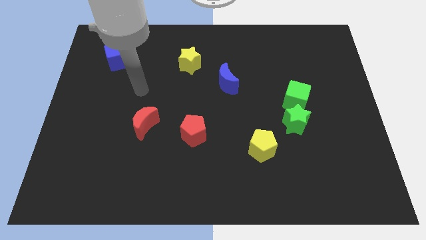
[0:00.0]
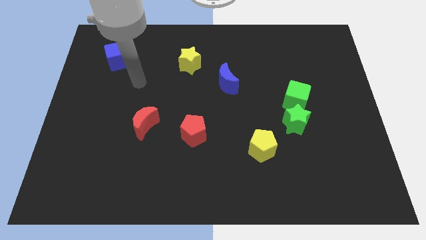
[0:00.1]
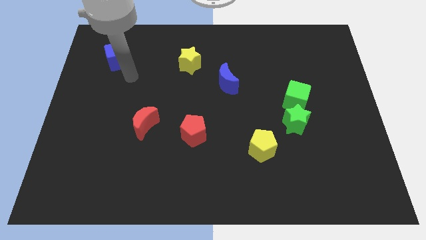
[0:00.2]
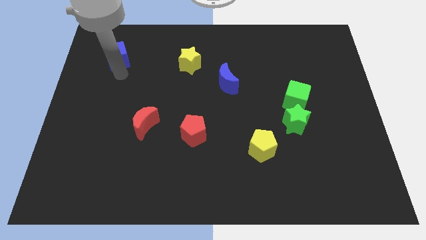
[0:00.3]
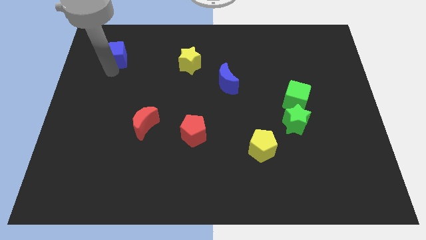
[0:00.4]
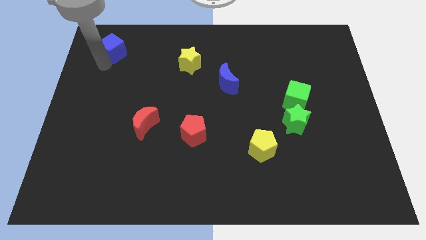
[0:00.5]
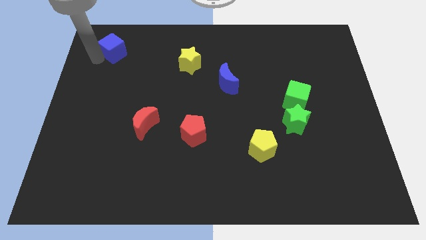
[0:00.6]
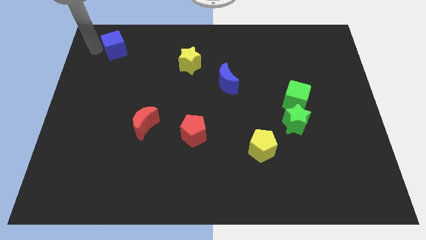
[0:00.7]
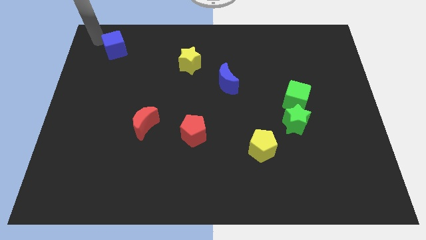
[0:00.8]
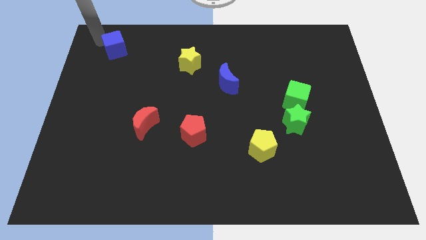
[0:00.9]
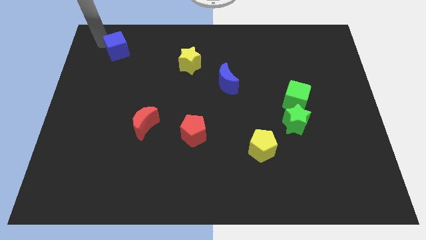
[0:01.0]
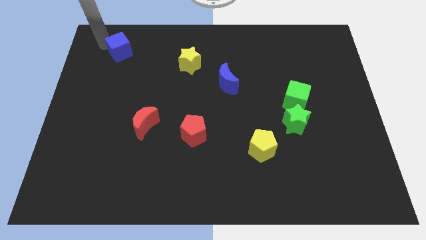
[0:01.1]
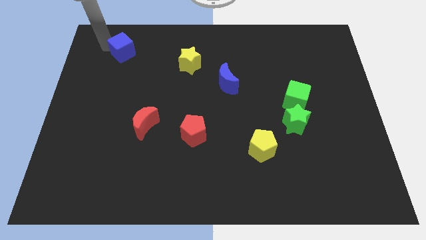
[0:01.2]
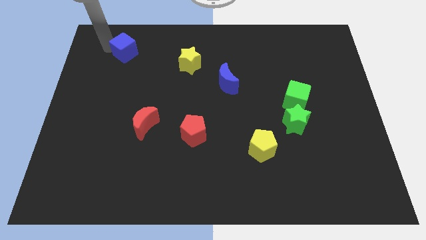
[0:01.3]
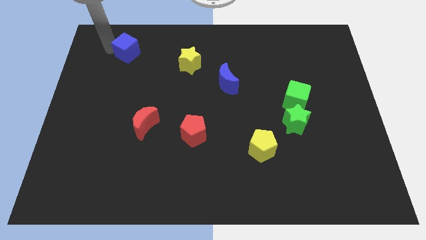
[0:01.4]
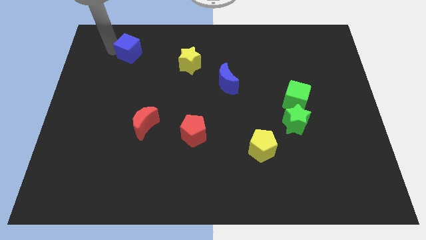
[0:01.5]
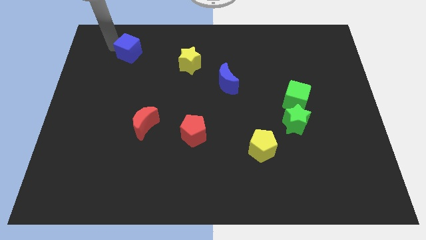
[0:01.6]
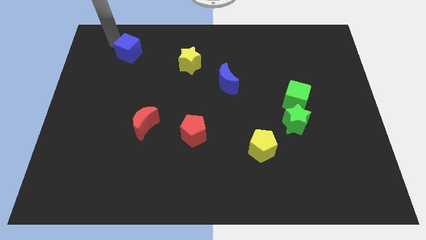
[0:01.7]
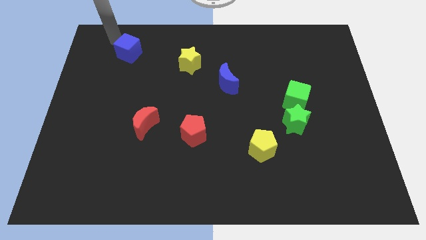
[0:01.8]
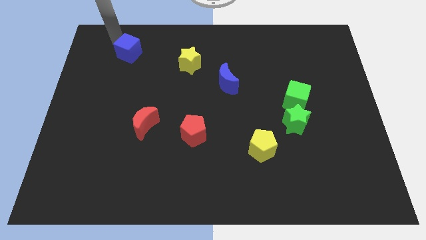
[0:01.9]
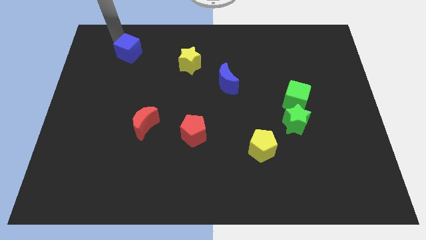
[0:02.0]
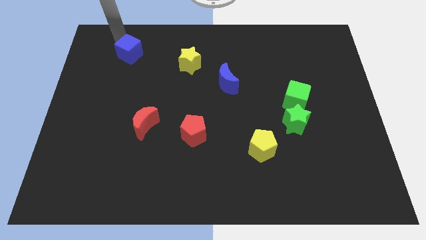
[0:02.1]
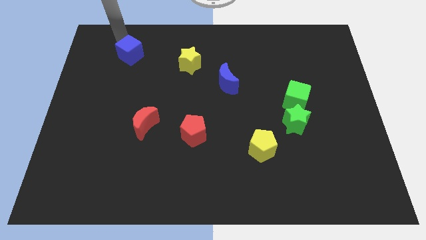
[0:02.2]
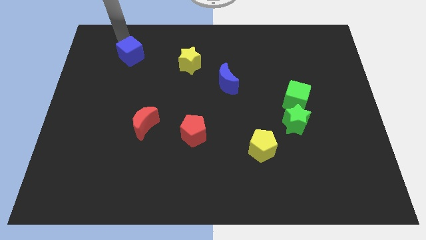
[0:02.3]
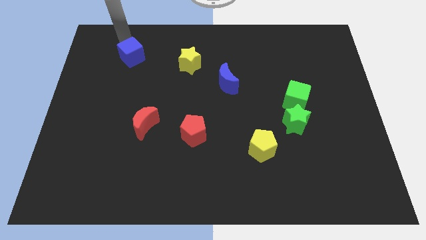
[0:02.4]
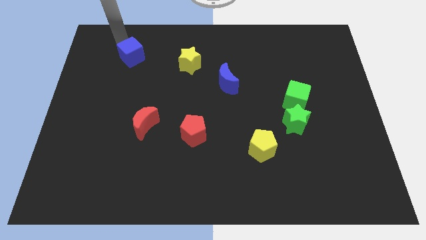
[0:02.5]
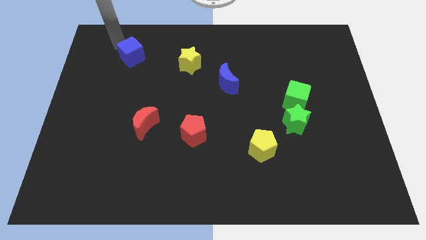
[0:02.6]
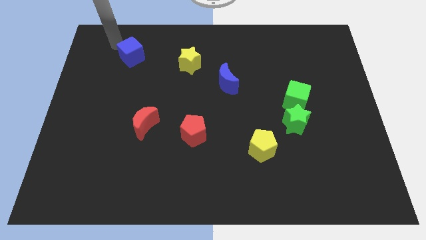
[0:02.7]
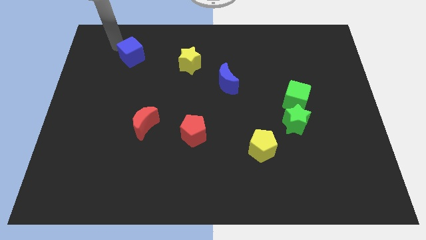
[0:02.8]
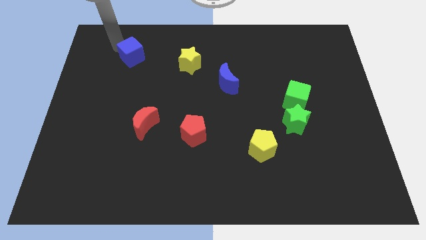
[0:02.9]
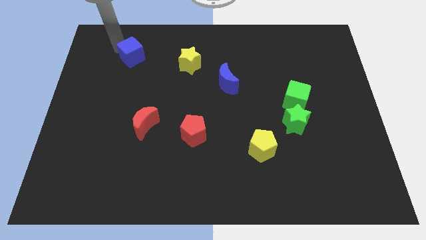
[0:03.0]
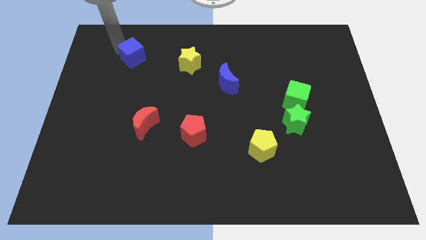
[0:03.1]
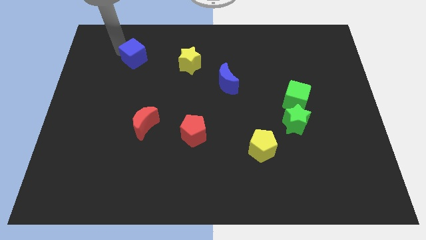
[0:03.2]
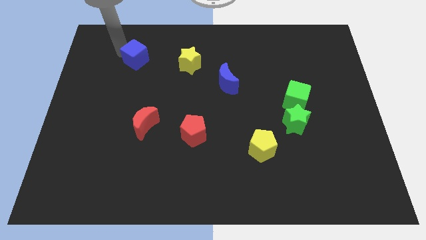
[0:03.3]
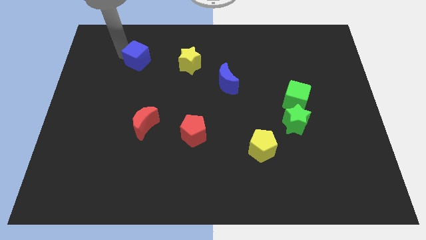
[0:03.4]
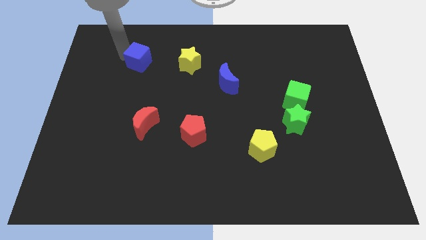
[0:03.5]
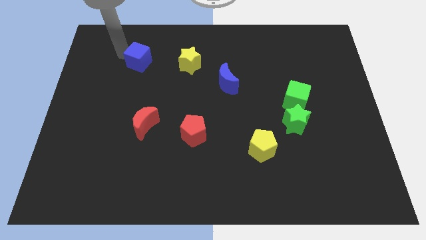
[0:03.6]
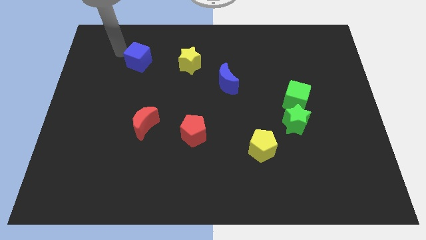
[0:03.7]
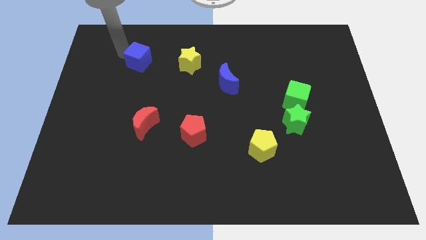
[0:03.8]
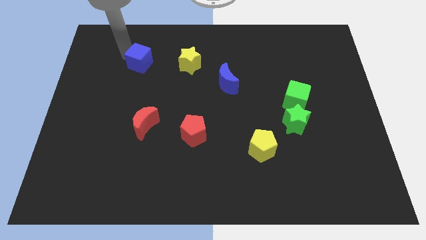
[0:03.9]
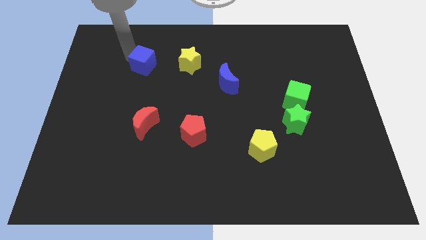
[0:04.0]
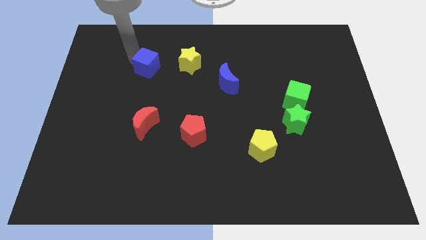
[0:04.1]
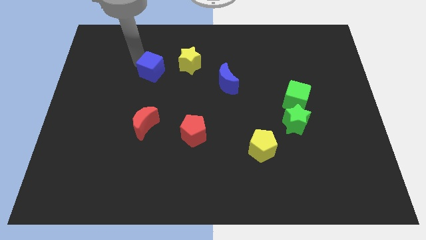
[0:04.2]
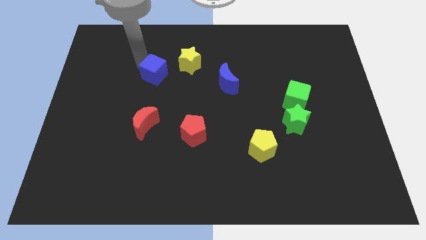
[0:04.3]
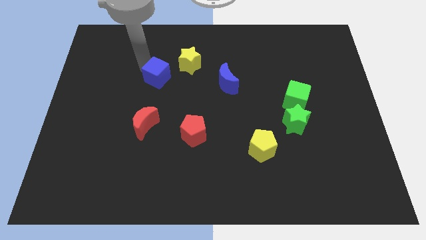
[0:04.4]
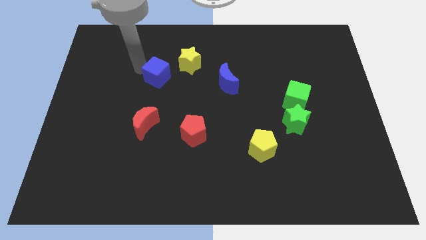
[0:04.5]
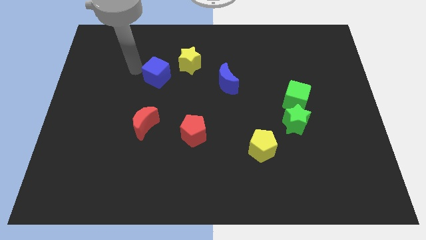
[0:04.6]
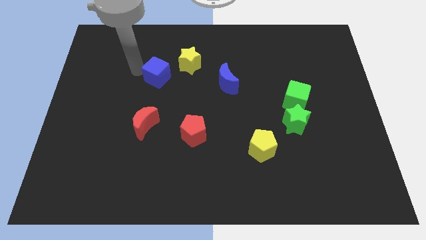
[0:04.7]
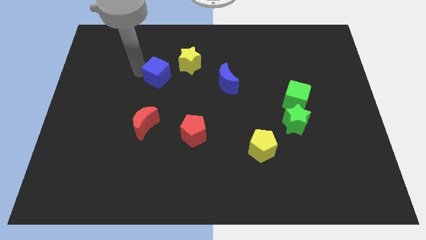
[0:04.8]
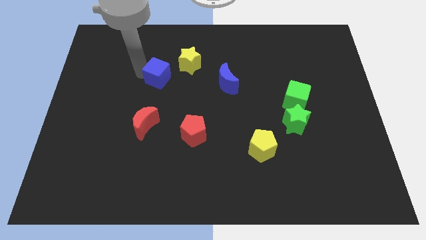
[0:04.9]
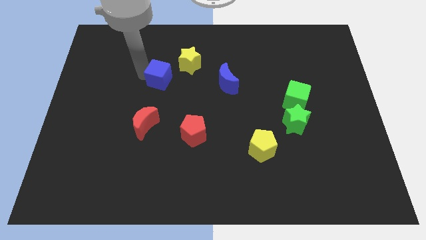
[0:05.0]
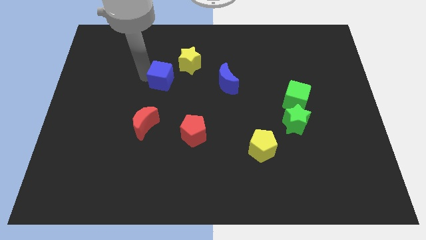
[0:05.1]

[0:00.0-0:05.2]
put the blue cube to the left of the blue moon

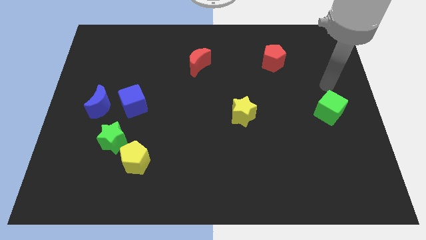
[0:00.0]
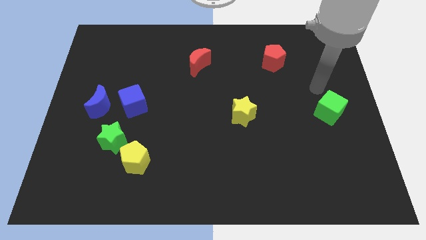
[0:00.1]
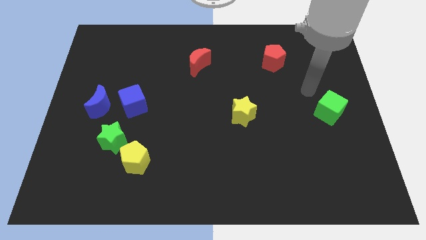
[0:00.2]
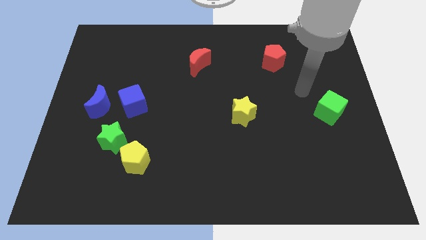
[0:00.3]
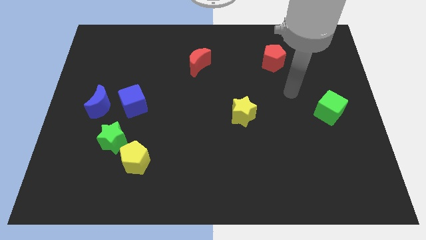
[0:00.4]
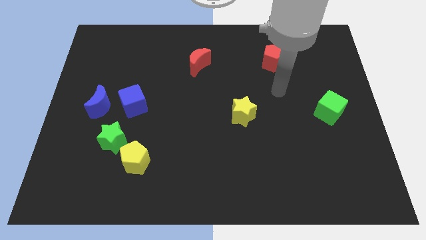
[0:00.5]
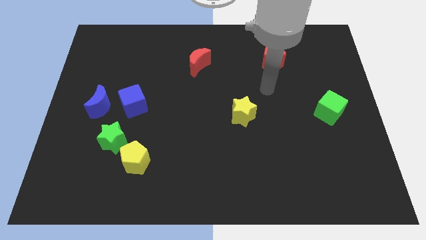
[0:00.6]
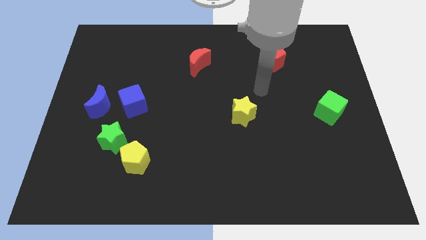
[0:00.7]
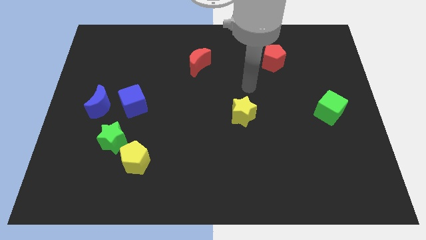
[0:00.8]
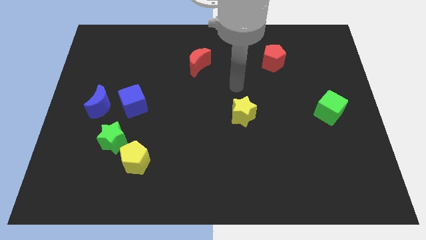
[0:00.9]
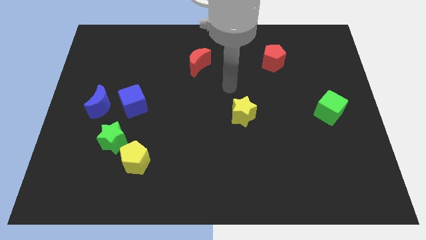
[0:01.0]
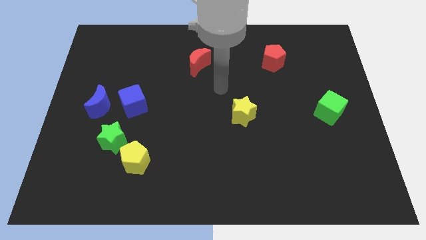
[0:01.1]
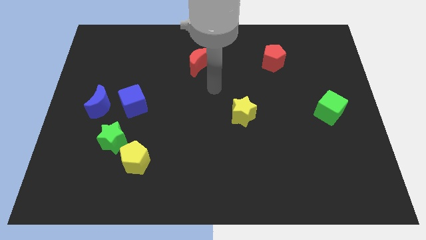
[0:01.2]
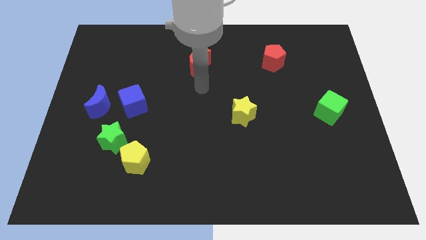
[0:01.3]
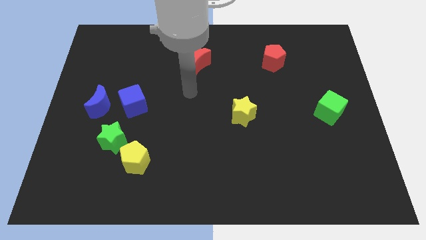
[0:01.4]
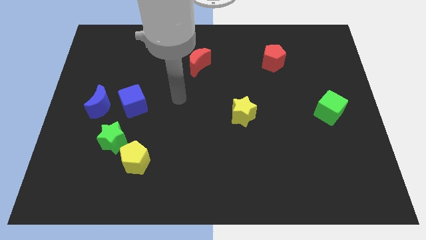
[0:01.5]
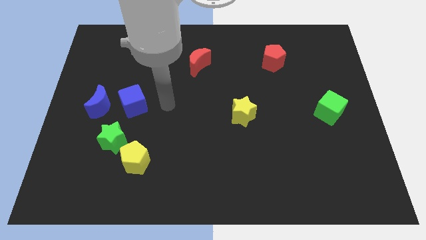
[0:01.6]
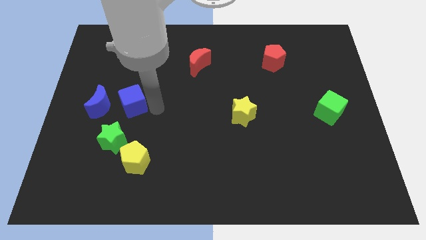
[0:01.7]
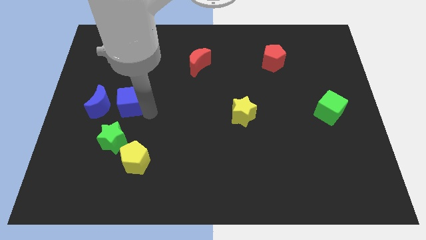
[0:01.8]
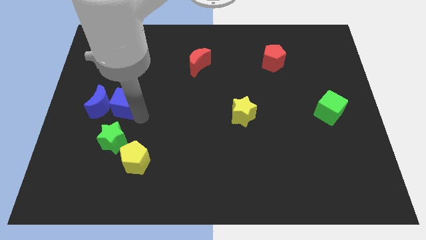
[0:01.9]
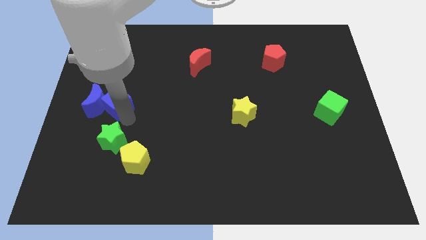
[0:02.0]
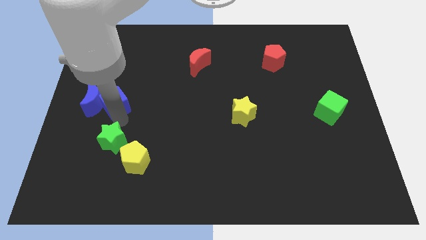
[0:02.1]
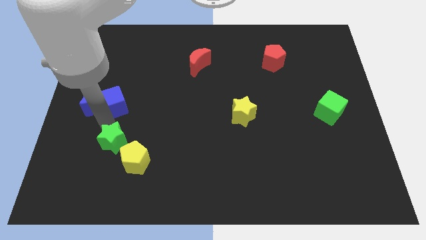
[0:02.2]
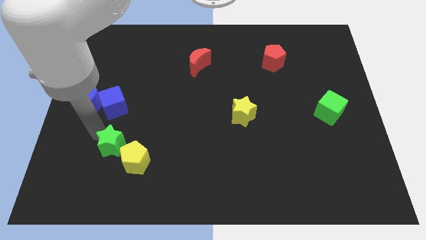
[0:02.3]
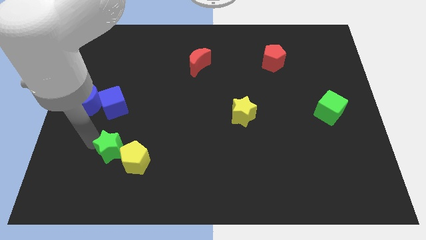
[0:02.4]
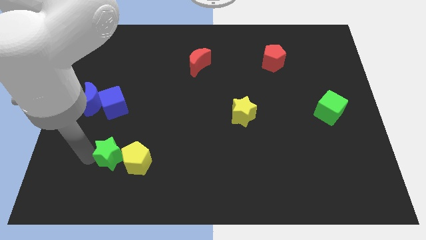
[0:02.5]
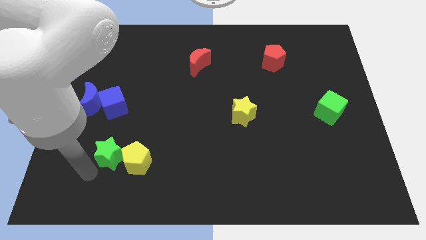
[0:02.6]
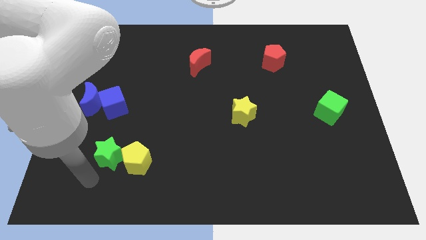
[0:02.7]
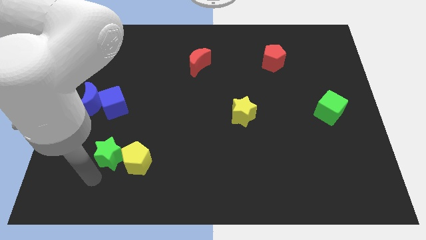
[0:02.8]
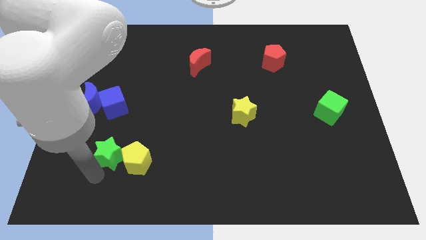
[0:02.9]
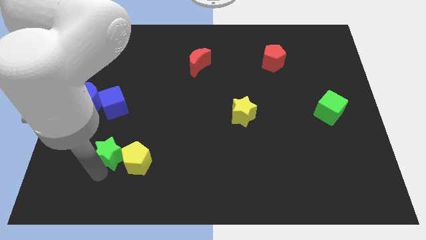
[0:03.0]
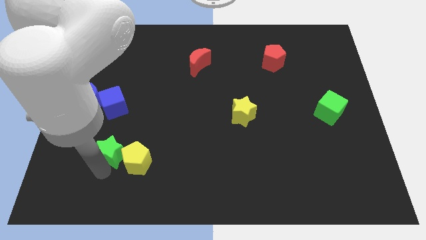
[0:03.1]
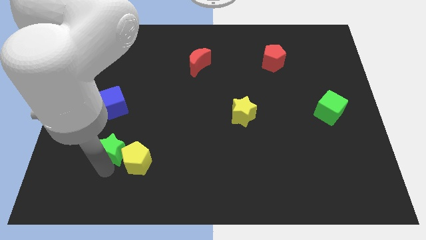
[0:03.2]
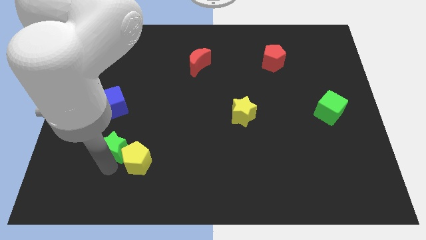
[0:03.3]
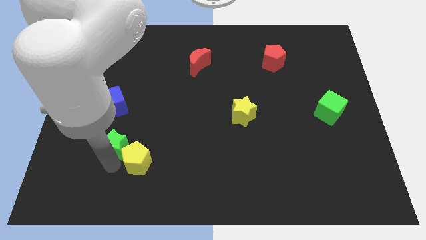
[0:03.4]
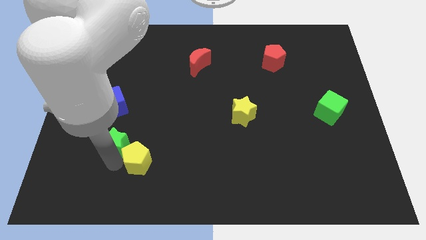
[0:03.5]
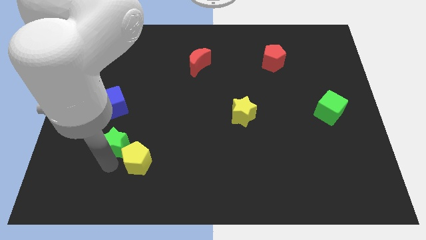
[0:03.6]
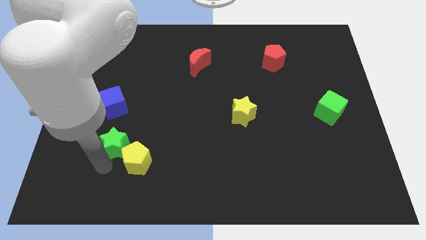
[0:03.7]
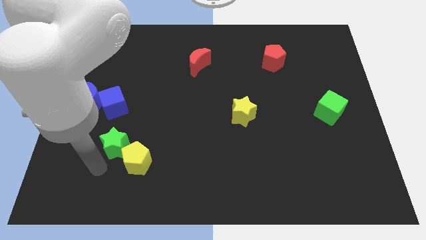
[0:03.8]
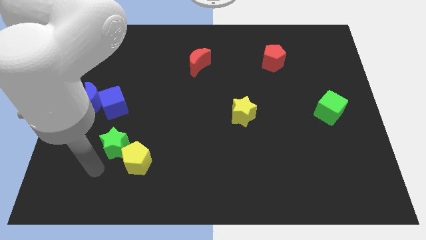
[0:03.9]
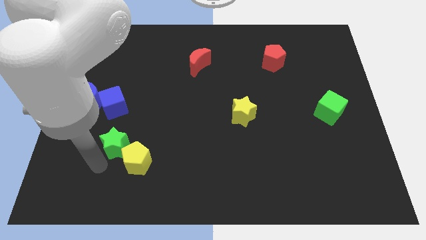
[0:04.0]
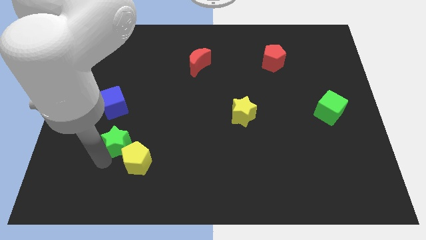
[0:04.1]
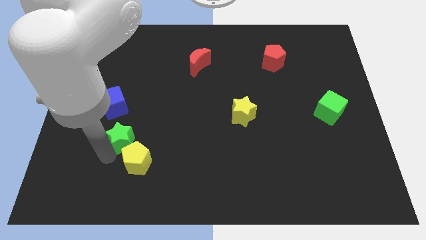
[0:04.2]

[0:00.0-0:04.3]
slide the green star to the top of the yellow pentagon
